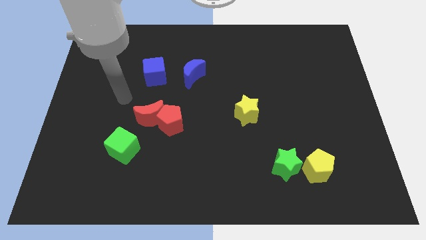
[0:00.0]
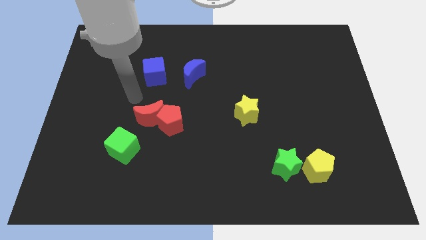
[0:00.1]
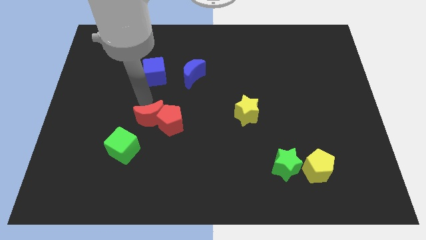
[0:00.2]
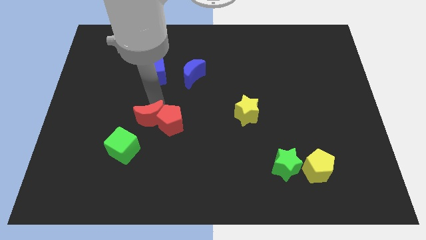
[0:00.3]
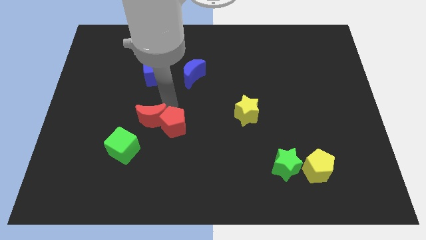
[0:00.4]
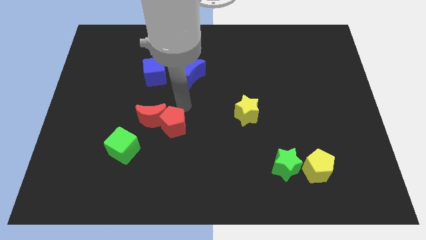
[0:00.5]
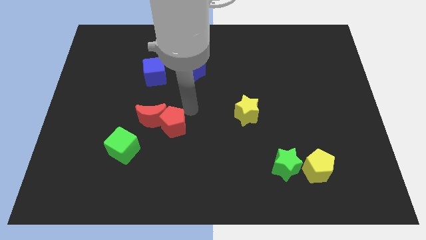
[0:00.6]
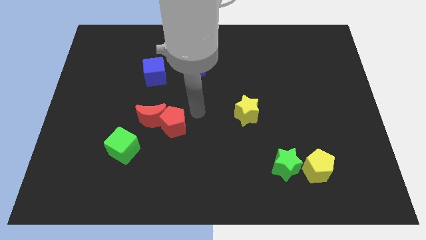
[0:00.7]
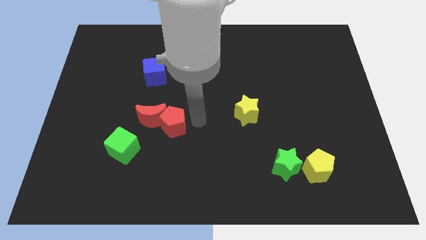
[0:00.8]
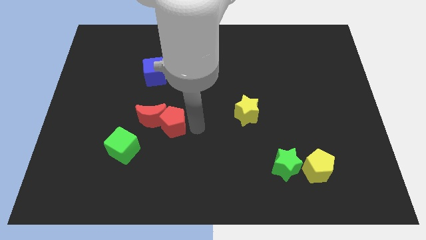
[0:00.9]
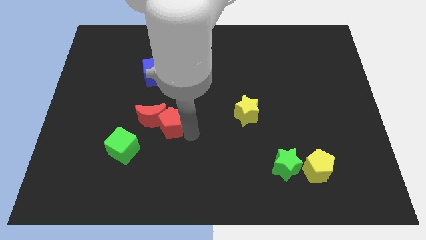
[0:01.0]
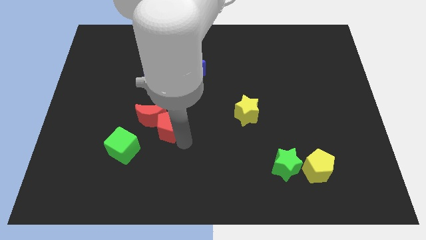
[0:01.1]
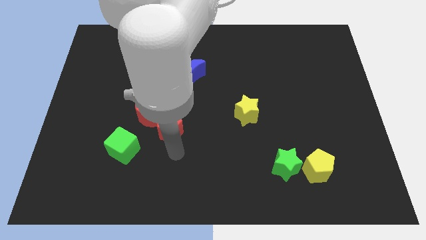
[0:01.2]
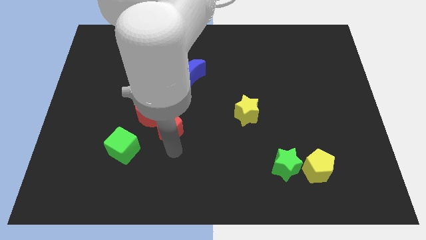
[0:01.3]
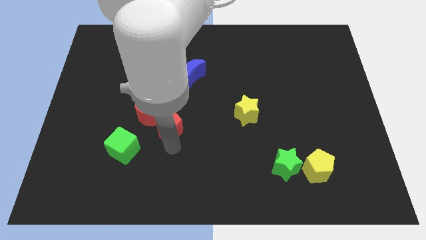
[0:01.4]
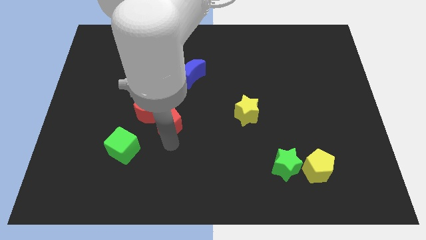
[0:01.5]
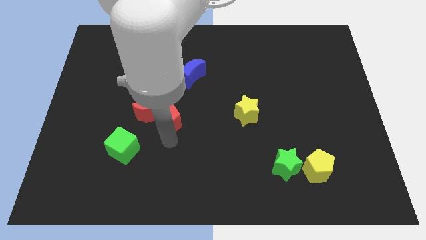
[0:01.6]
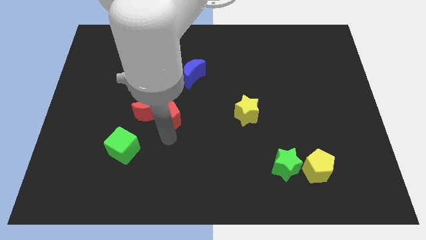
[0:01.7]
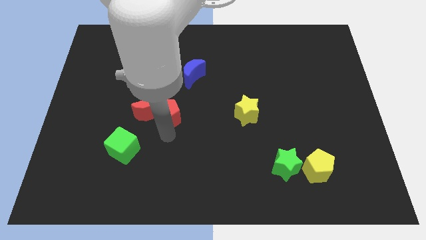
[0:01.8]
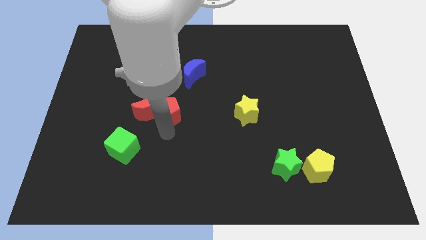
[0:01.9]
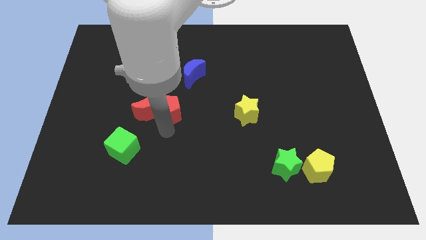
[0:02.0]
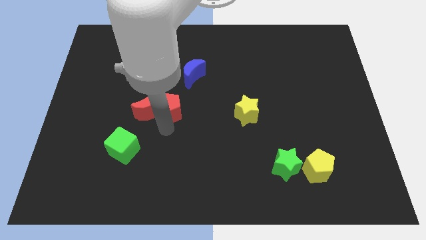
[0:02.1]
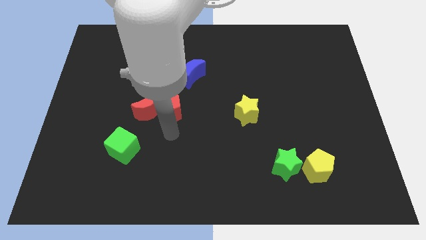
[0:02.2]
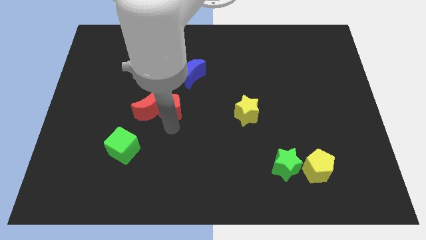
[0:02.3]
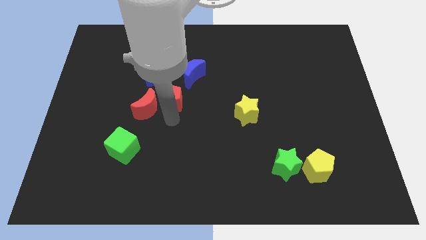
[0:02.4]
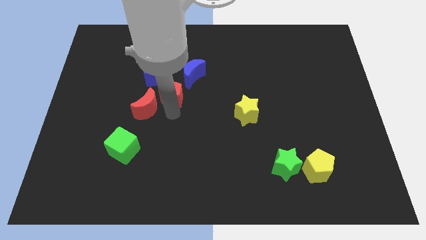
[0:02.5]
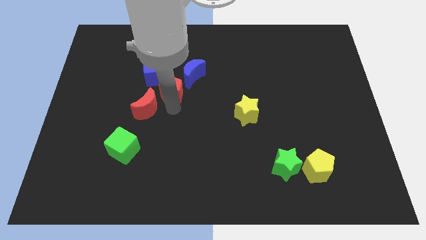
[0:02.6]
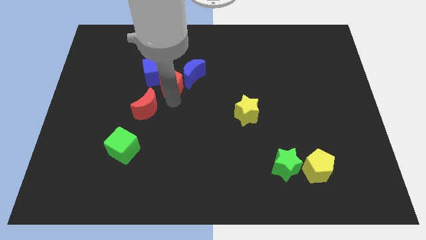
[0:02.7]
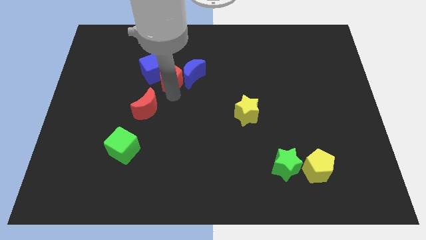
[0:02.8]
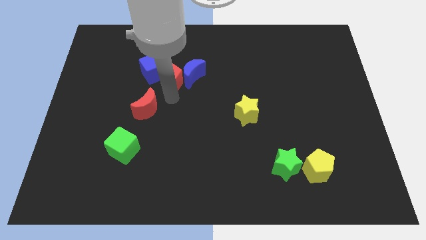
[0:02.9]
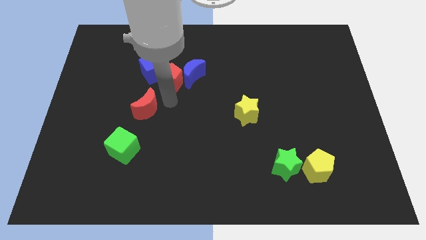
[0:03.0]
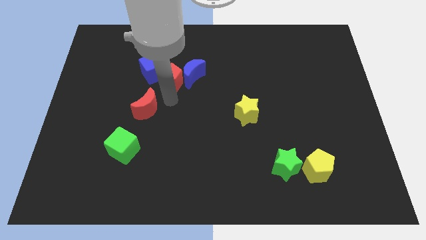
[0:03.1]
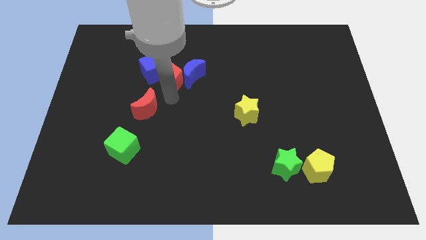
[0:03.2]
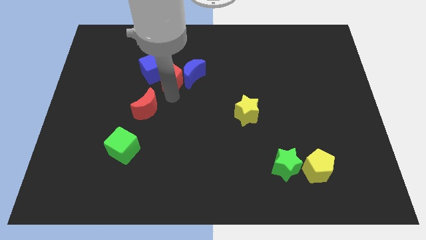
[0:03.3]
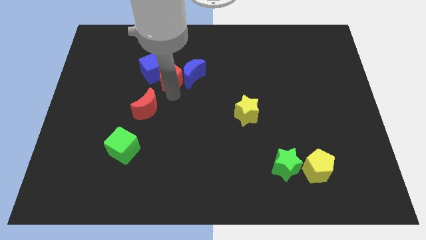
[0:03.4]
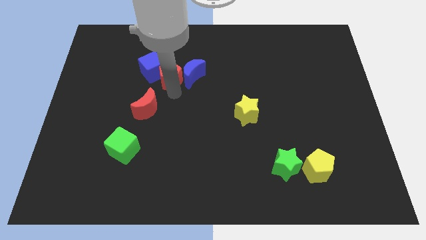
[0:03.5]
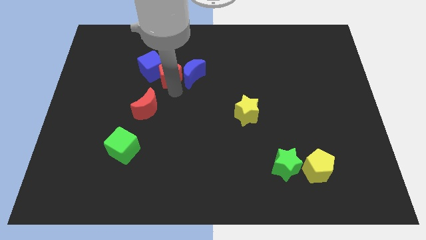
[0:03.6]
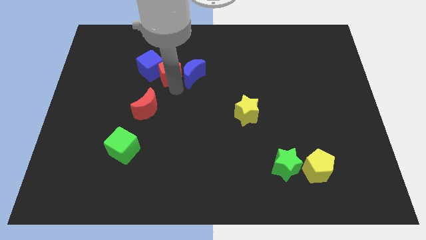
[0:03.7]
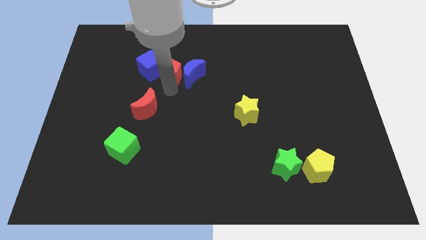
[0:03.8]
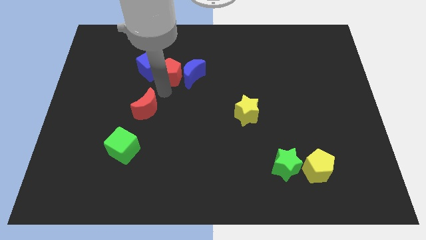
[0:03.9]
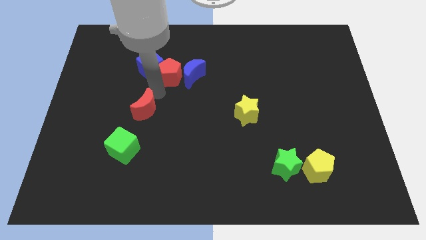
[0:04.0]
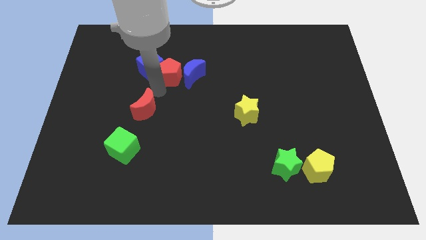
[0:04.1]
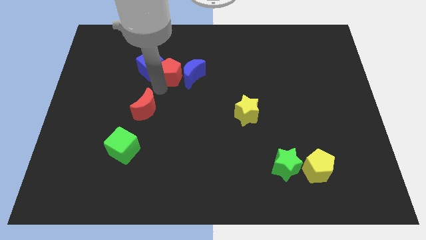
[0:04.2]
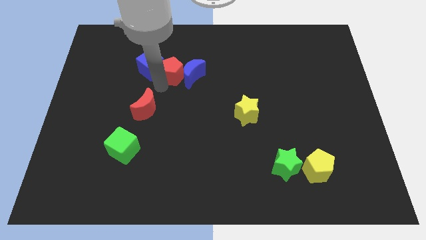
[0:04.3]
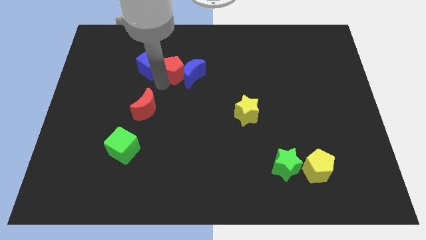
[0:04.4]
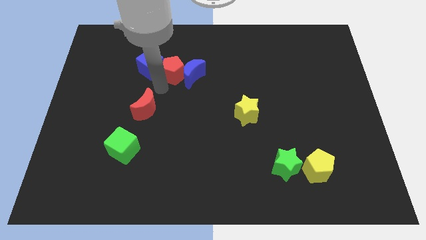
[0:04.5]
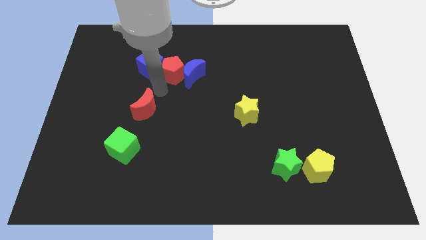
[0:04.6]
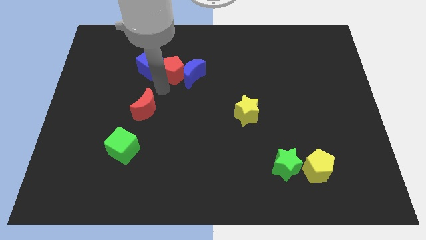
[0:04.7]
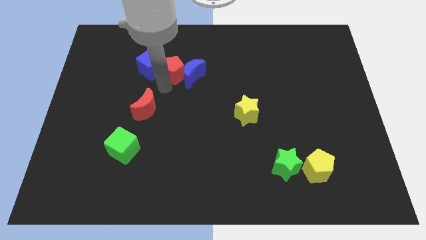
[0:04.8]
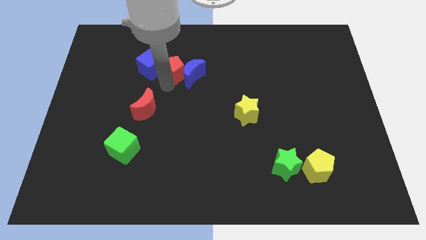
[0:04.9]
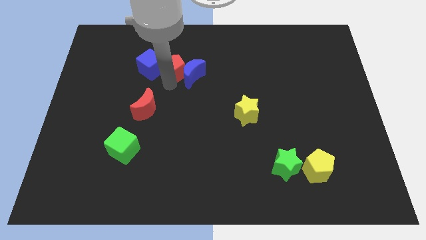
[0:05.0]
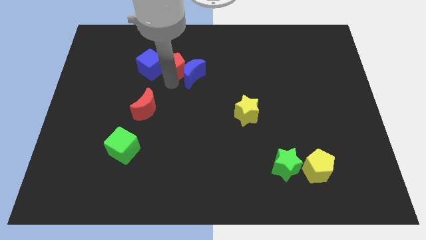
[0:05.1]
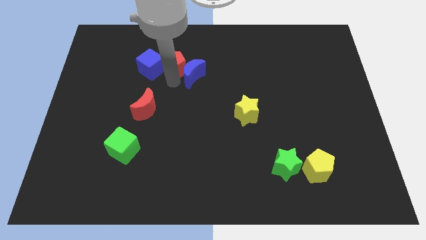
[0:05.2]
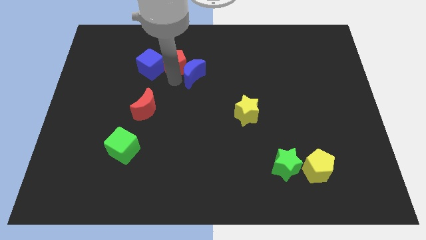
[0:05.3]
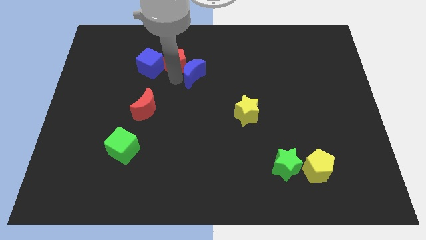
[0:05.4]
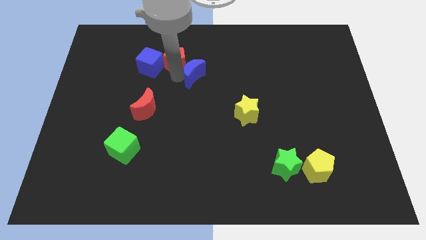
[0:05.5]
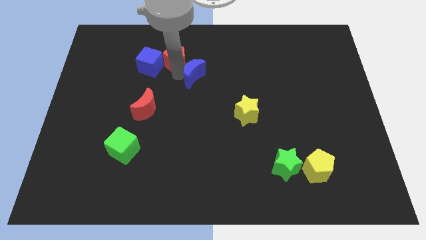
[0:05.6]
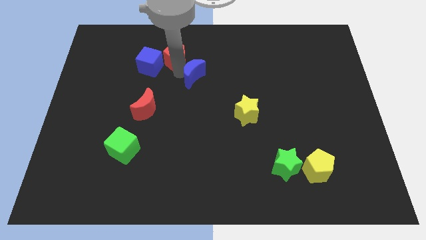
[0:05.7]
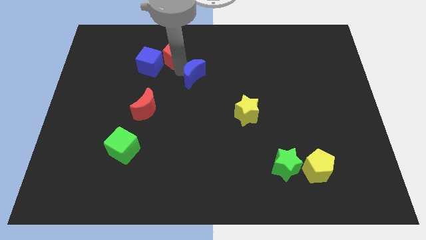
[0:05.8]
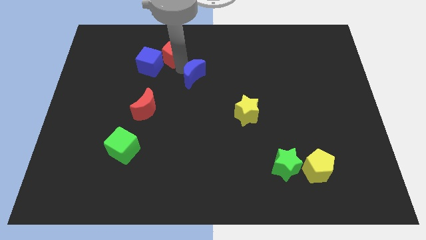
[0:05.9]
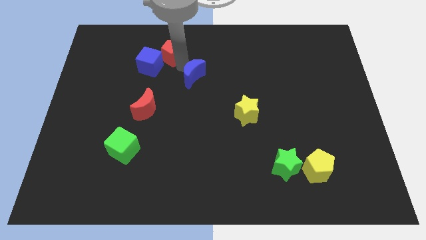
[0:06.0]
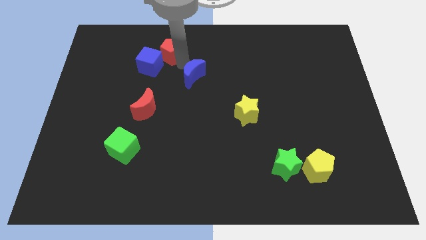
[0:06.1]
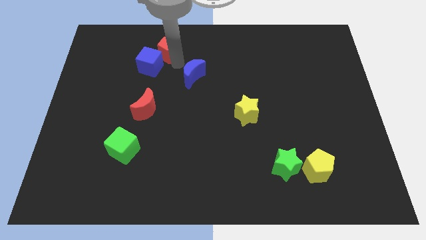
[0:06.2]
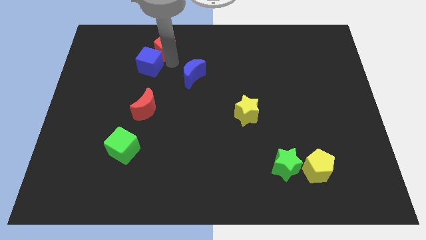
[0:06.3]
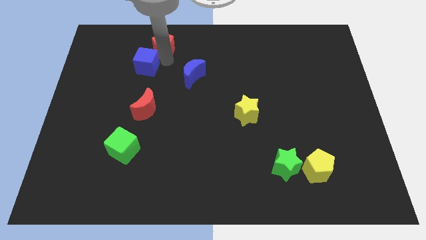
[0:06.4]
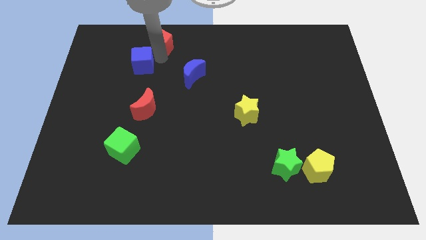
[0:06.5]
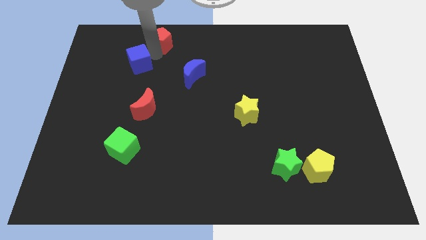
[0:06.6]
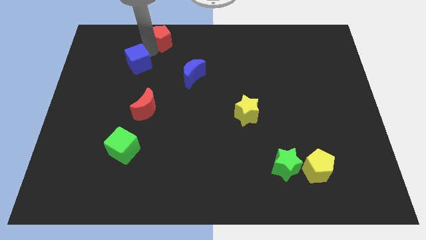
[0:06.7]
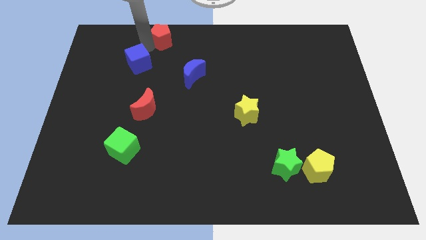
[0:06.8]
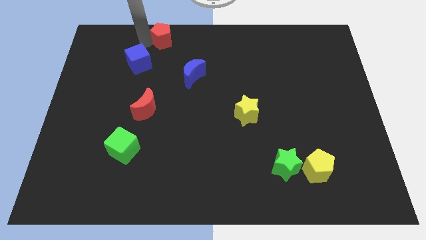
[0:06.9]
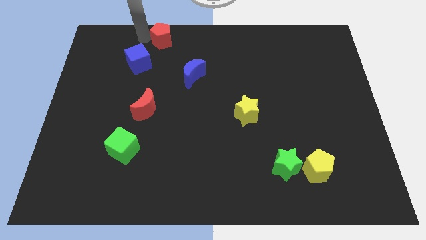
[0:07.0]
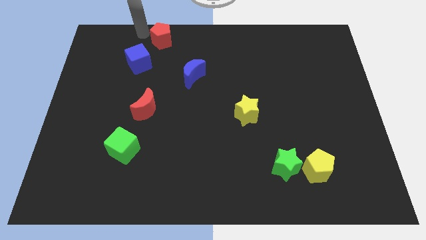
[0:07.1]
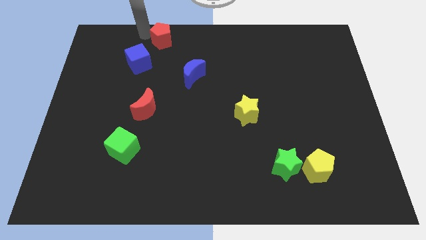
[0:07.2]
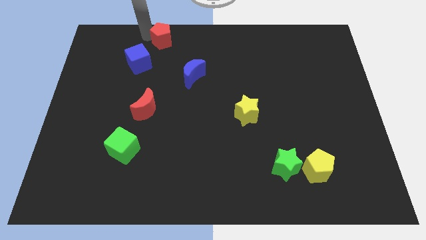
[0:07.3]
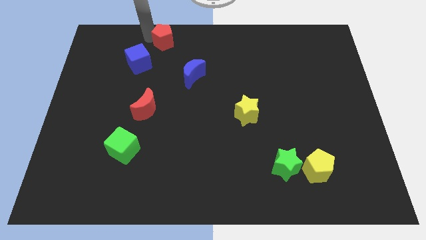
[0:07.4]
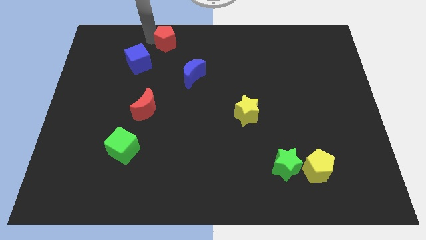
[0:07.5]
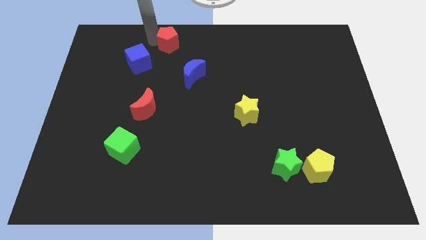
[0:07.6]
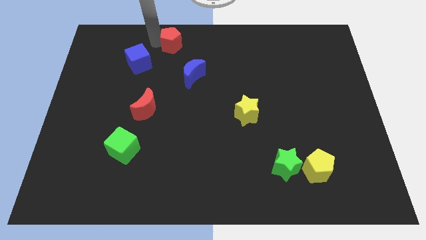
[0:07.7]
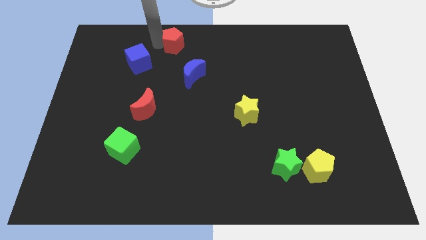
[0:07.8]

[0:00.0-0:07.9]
slide the red pentagon to the towards your base
